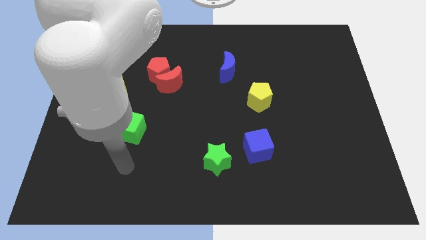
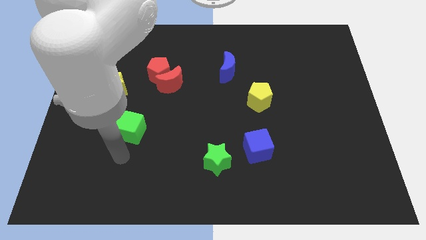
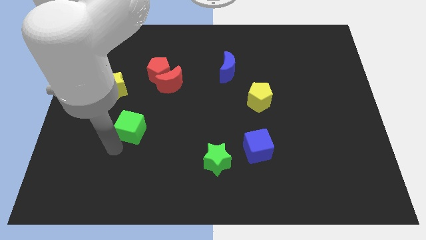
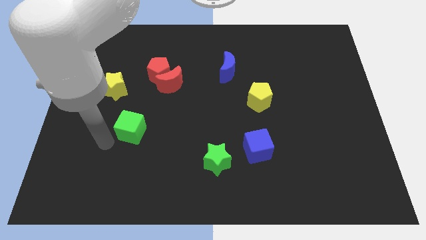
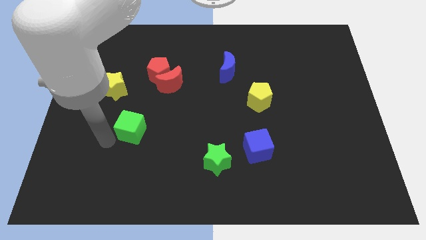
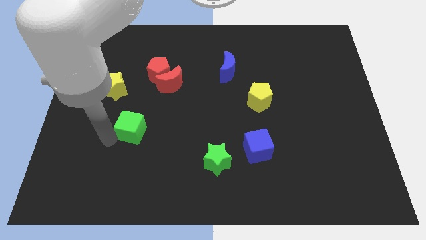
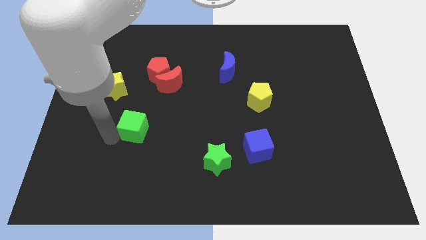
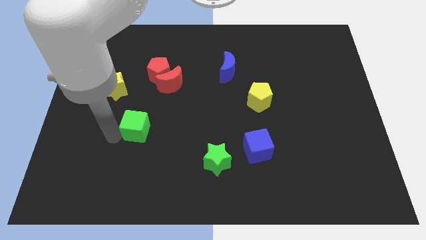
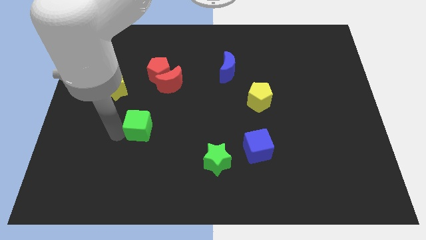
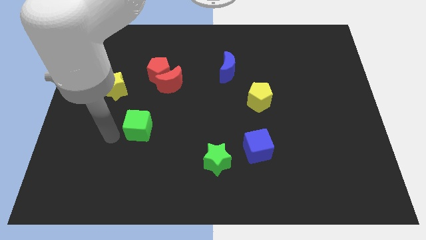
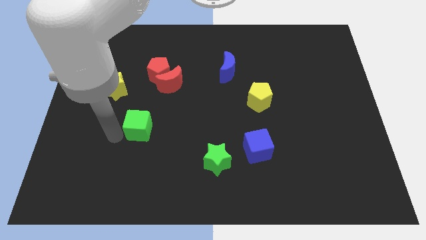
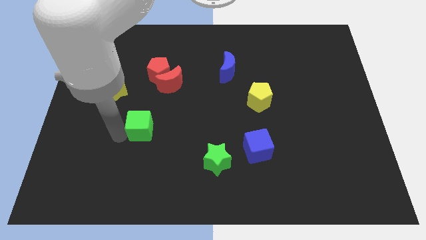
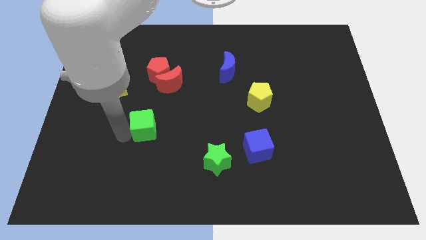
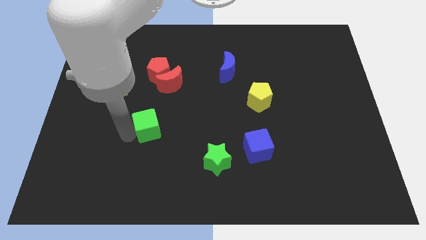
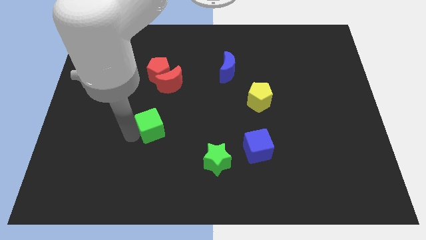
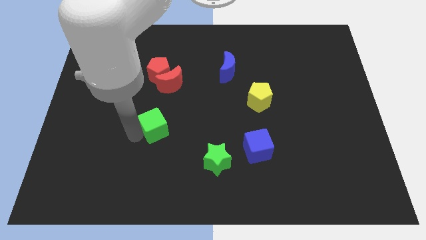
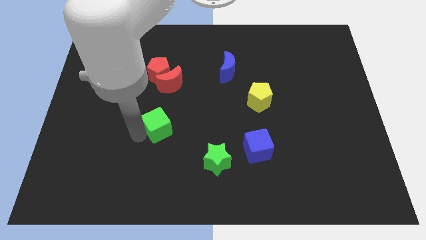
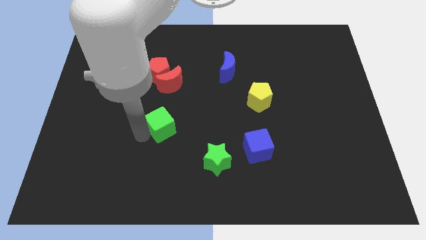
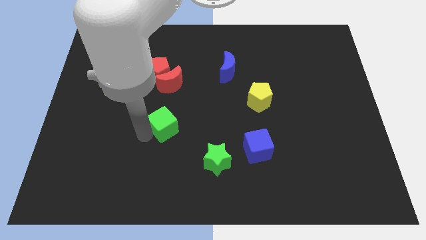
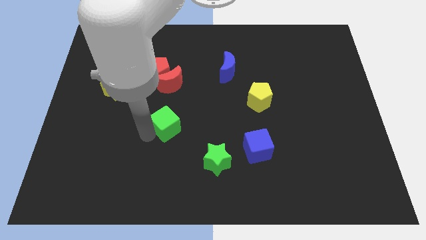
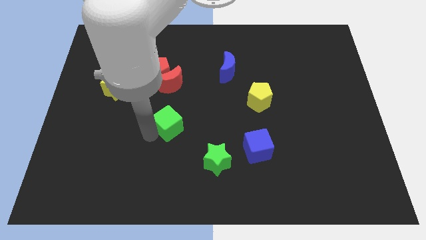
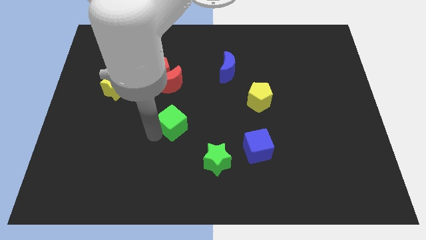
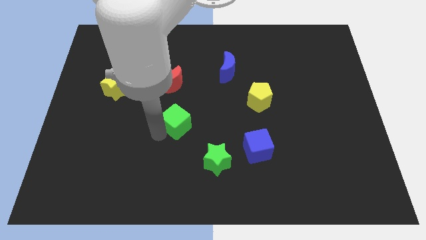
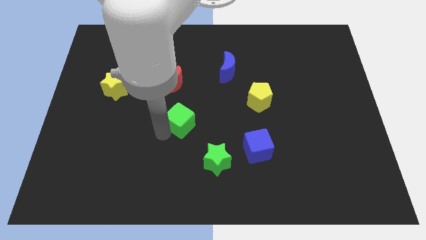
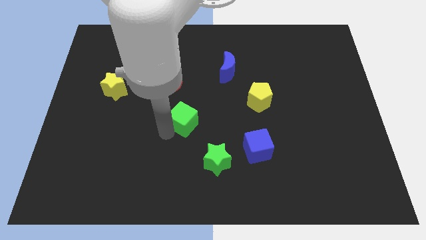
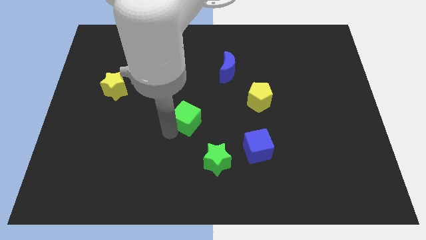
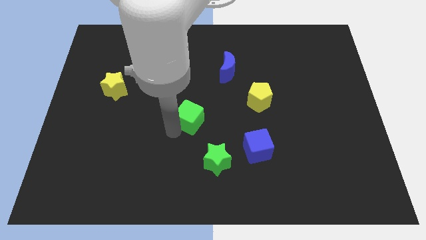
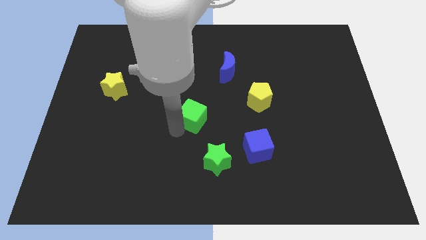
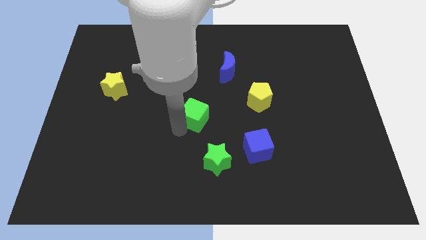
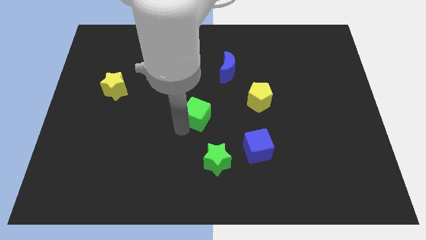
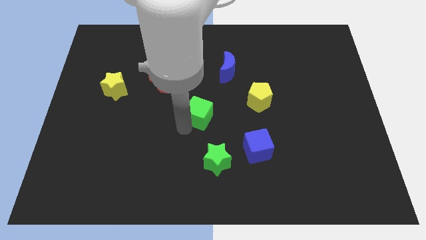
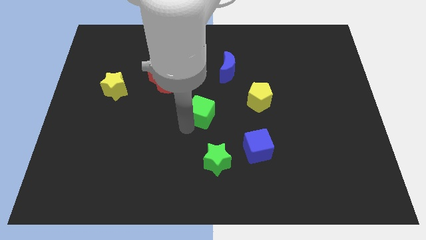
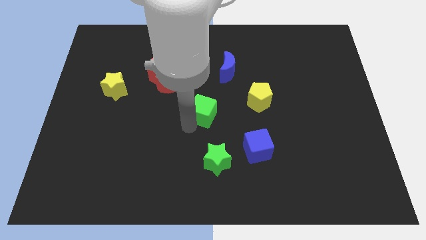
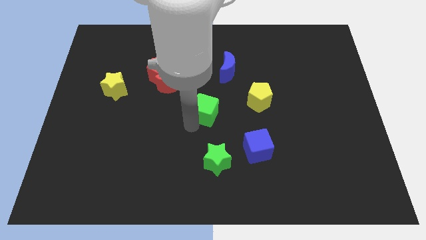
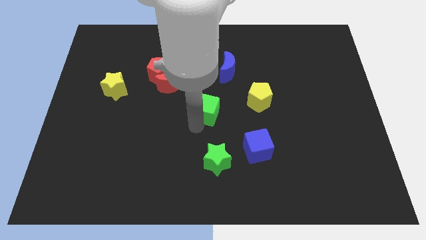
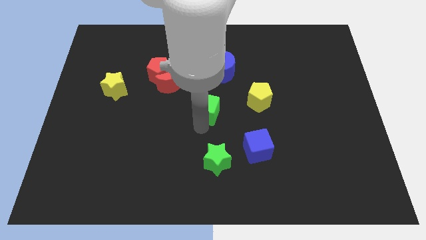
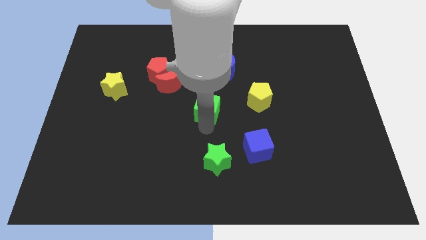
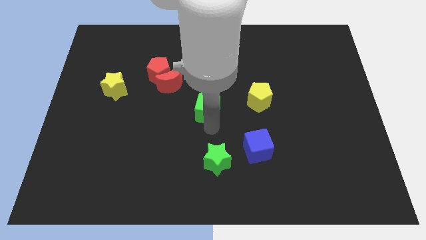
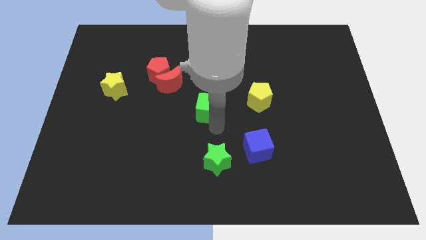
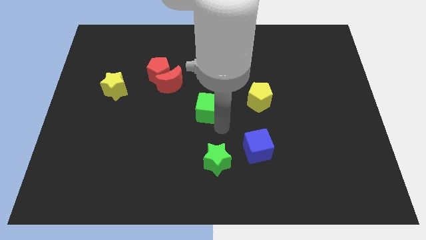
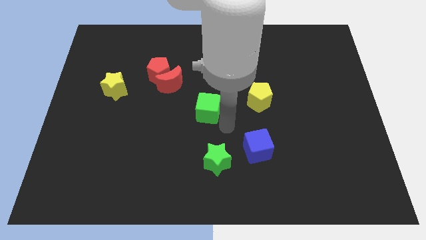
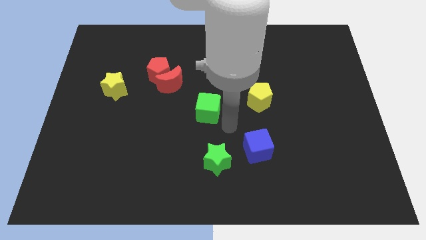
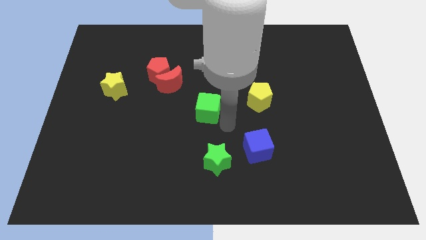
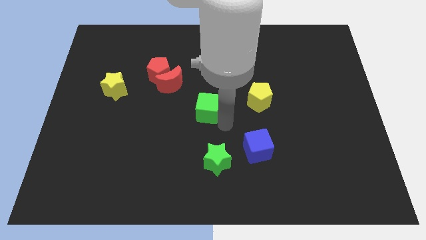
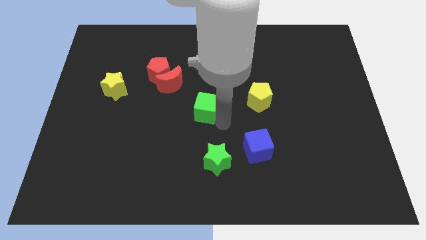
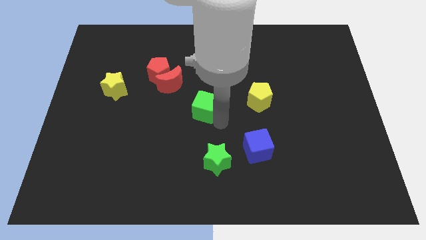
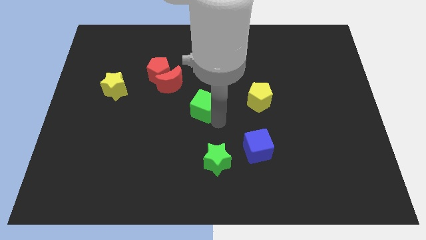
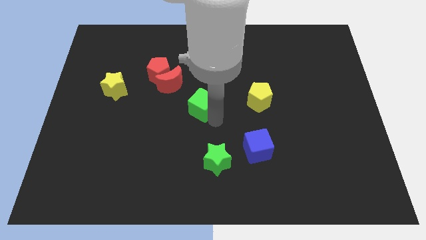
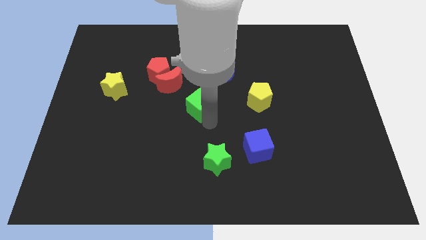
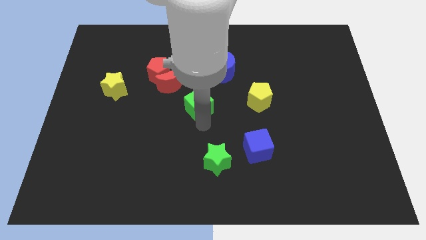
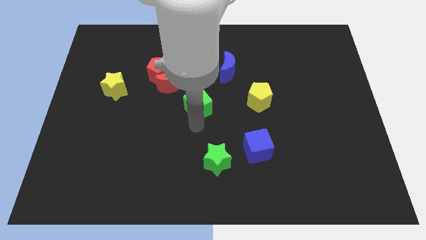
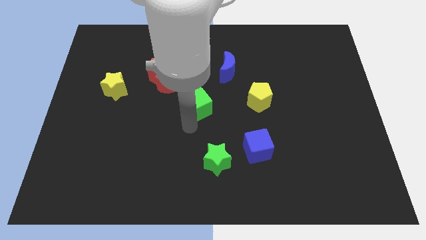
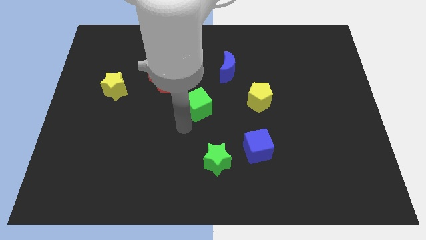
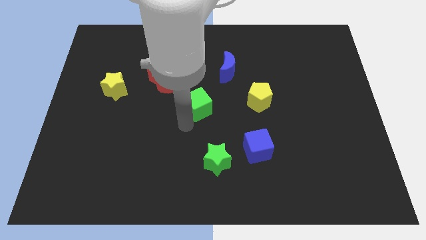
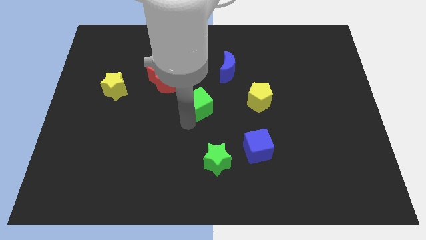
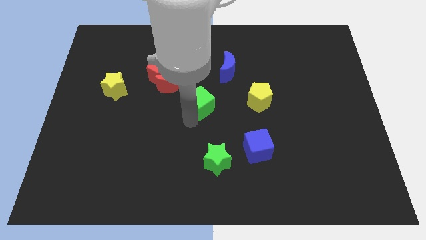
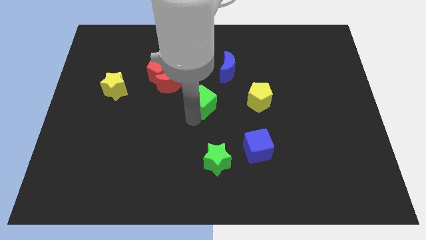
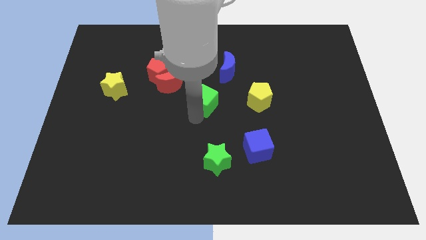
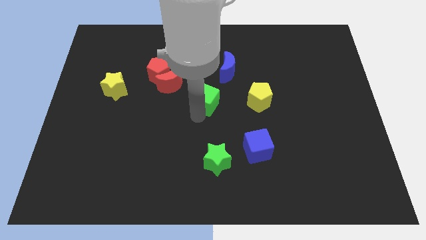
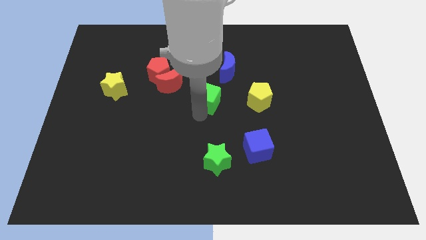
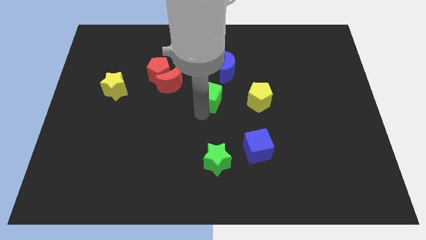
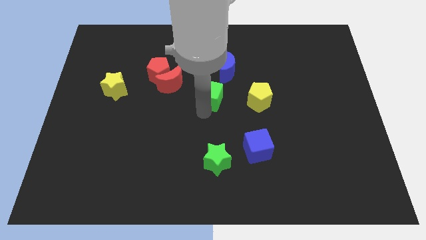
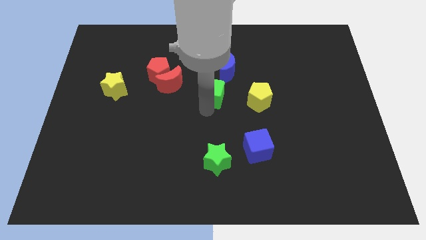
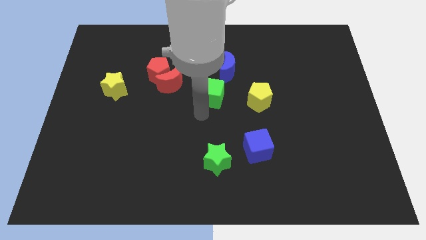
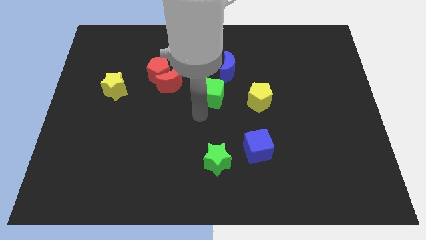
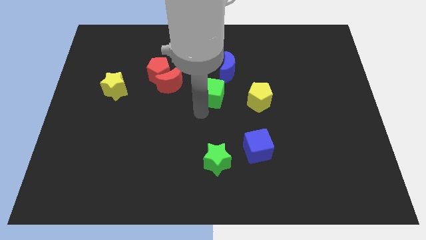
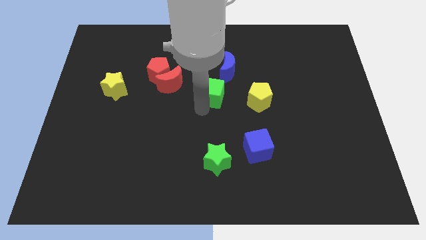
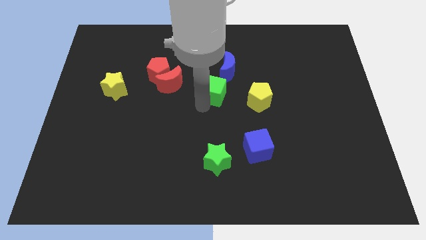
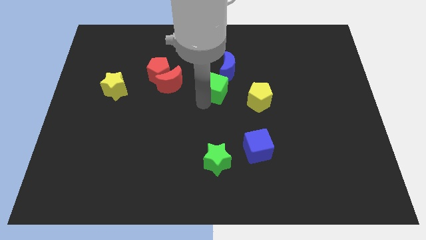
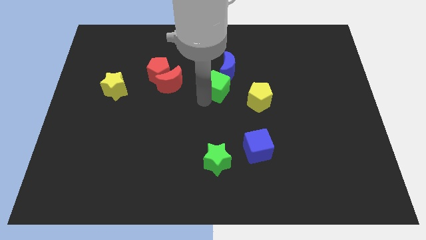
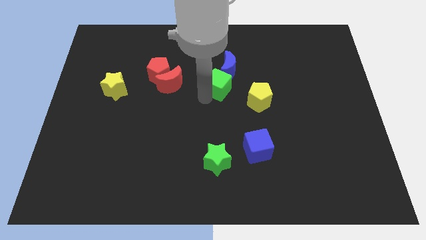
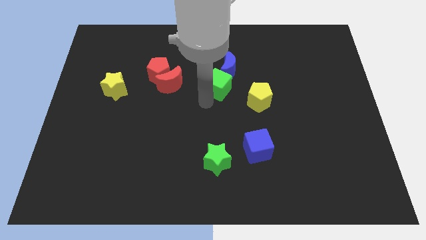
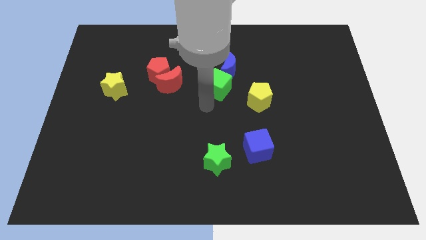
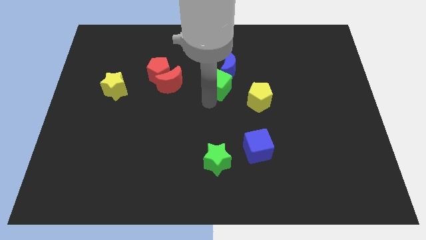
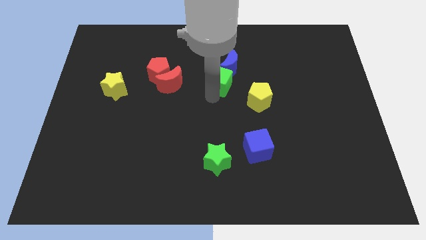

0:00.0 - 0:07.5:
move the green cube next to the blue moon
